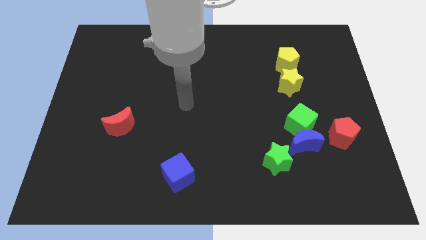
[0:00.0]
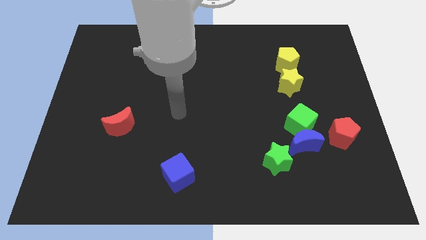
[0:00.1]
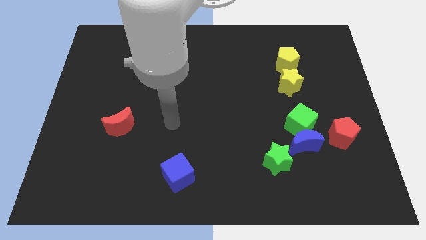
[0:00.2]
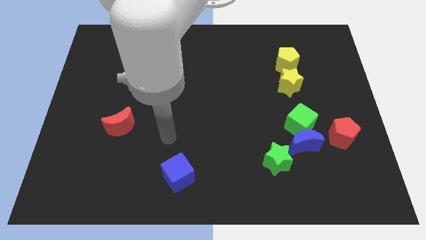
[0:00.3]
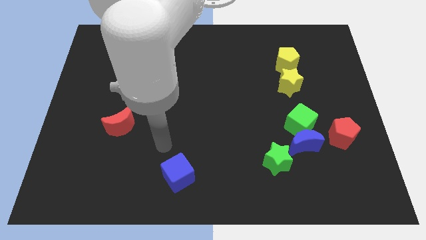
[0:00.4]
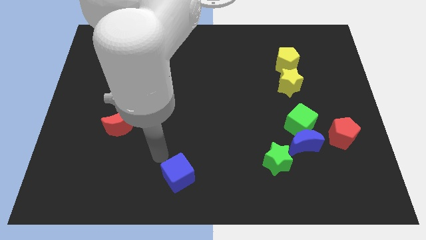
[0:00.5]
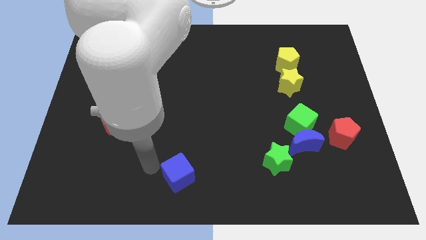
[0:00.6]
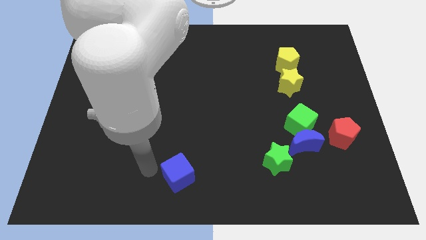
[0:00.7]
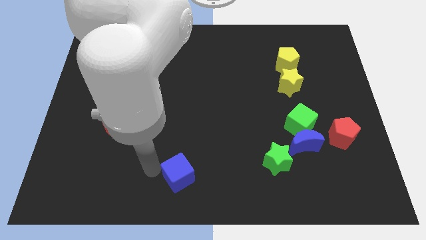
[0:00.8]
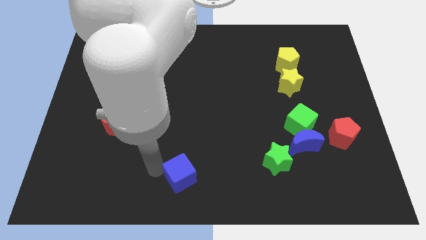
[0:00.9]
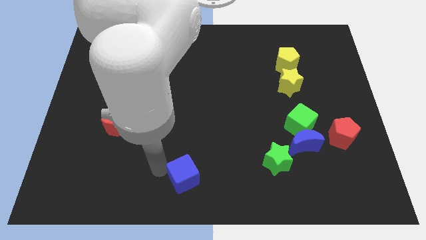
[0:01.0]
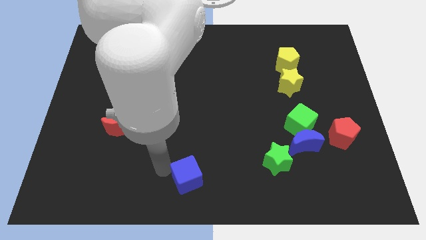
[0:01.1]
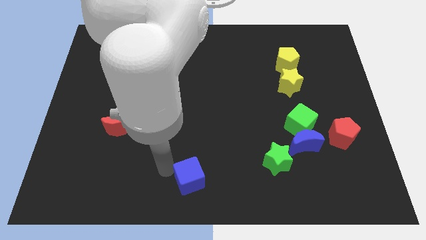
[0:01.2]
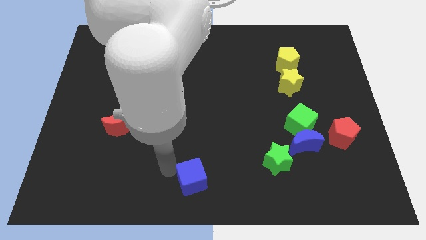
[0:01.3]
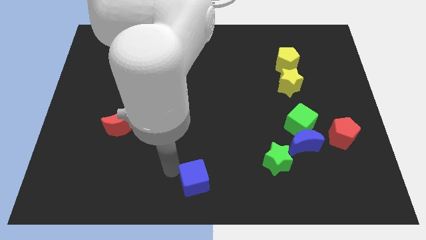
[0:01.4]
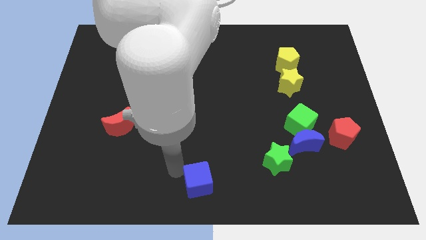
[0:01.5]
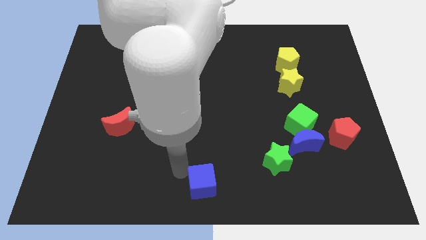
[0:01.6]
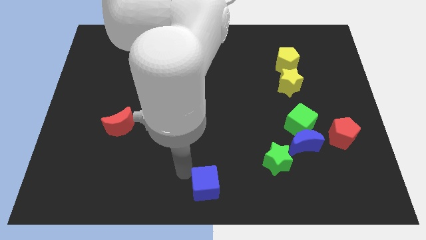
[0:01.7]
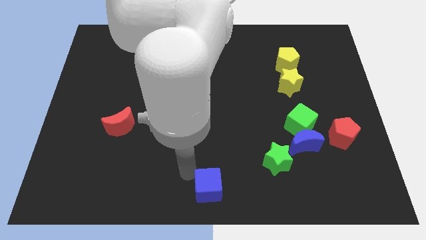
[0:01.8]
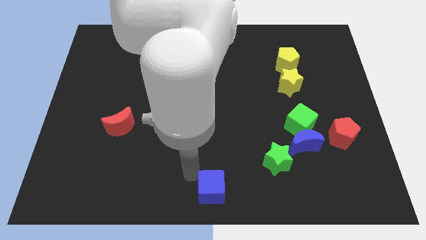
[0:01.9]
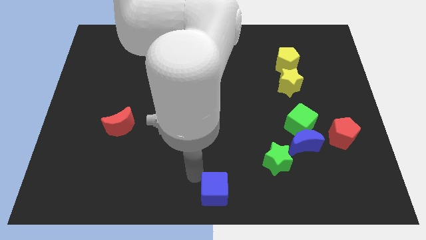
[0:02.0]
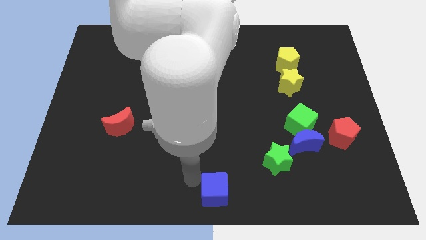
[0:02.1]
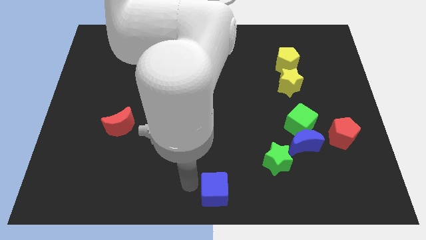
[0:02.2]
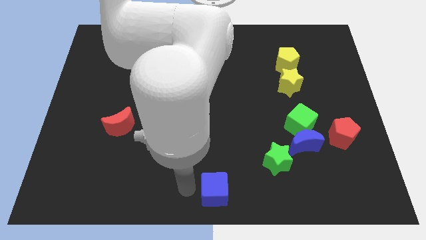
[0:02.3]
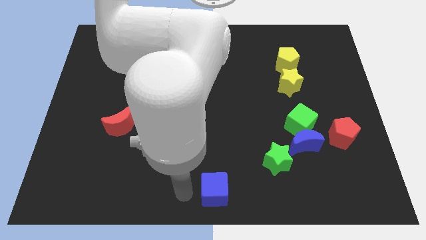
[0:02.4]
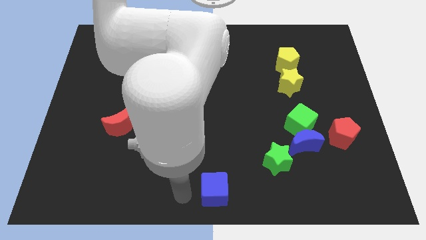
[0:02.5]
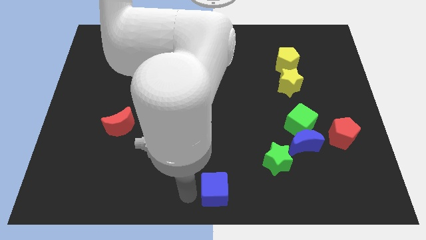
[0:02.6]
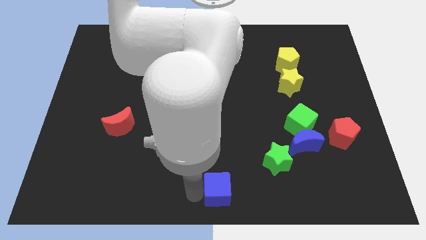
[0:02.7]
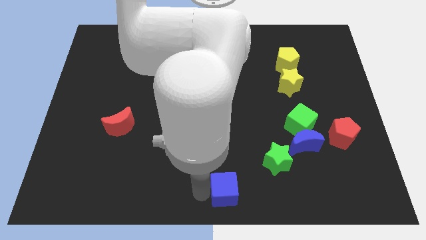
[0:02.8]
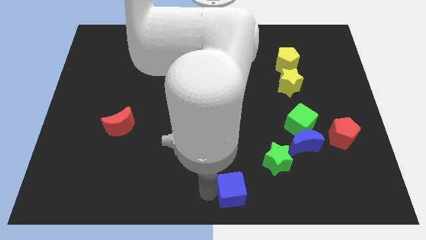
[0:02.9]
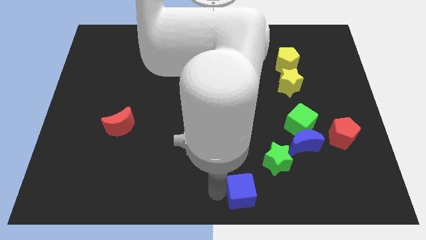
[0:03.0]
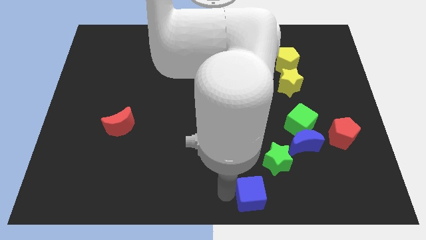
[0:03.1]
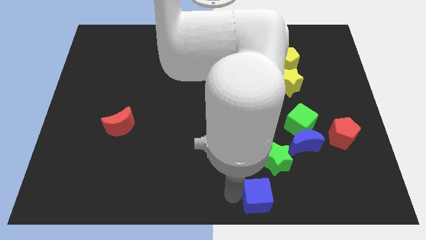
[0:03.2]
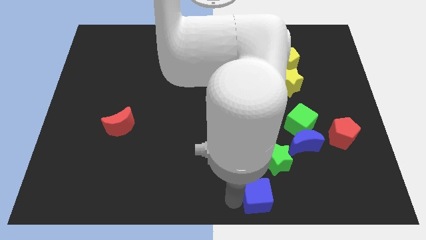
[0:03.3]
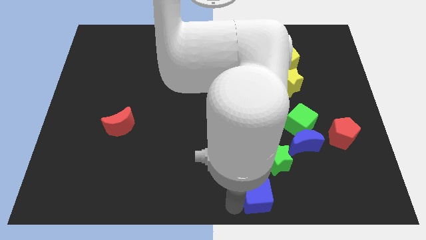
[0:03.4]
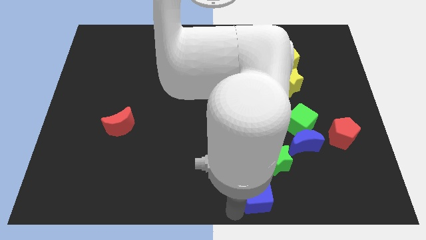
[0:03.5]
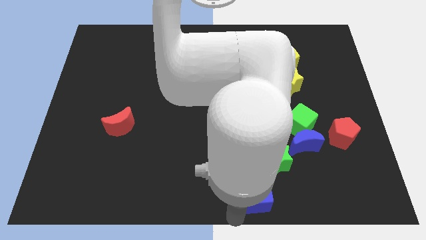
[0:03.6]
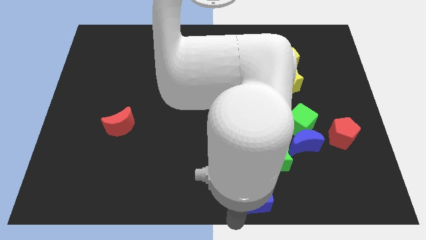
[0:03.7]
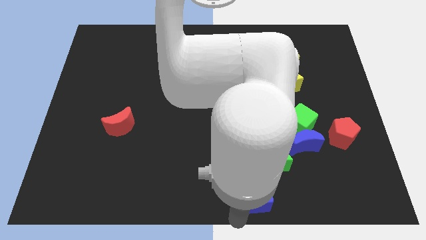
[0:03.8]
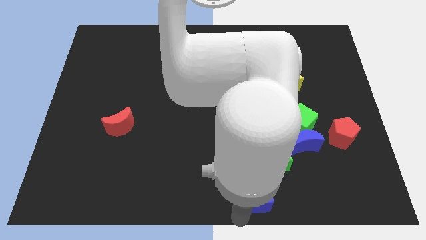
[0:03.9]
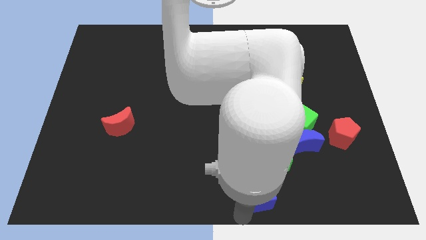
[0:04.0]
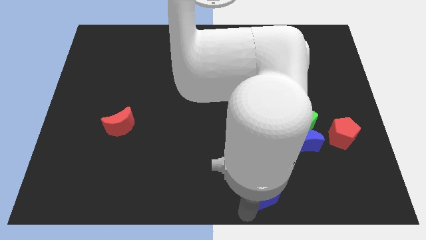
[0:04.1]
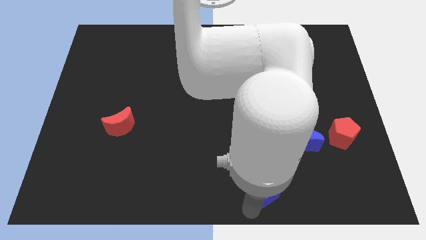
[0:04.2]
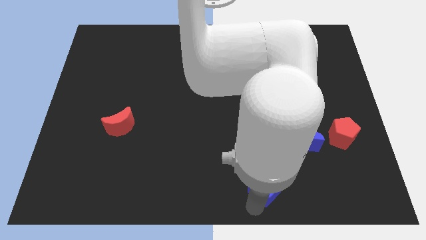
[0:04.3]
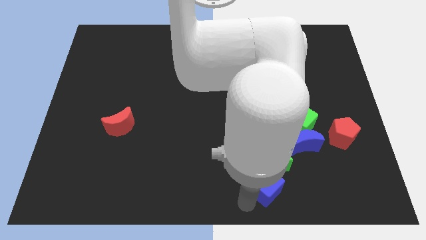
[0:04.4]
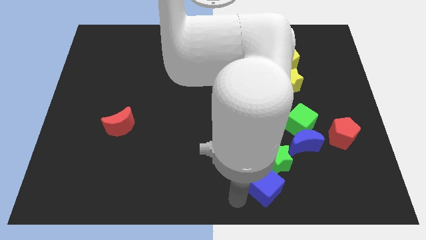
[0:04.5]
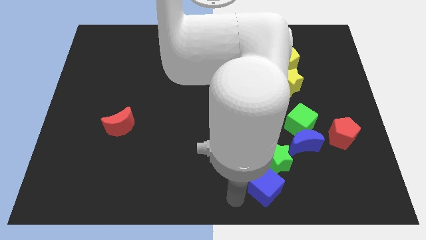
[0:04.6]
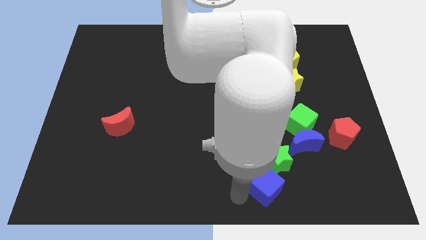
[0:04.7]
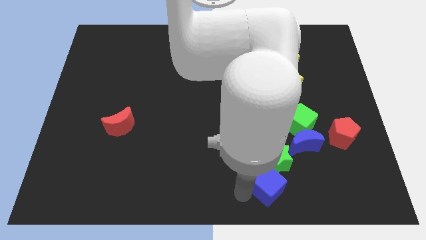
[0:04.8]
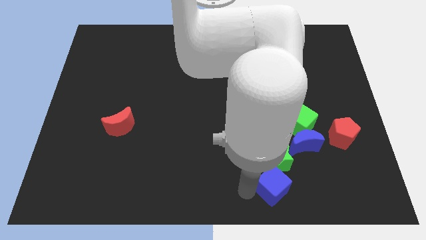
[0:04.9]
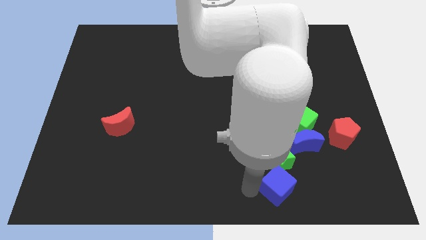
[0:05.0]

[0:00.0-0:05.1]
slide the blue cube right

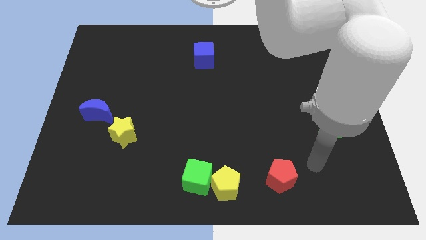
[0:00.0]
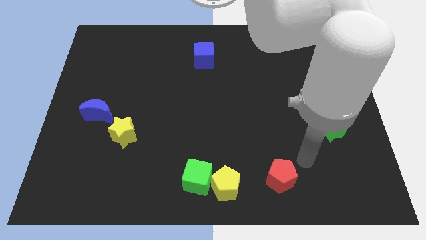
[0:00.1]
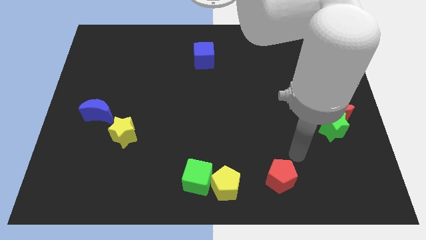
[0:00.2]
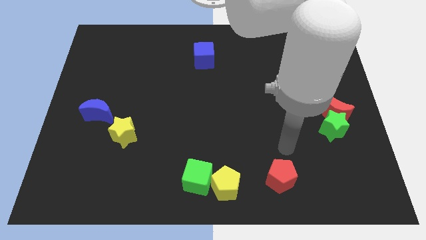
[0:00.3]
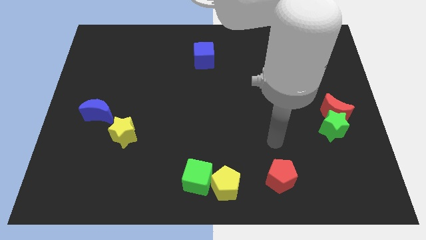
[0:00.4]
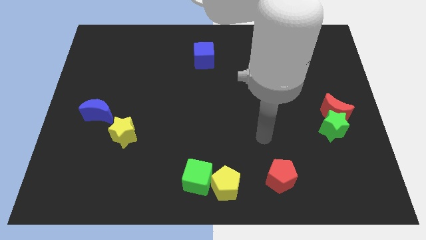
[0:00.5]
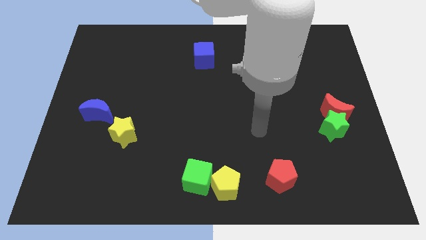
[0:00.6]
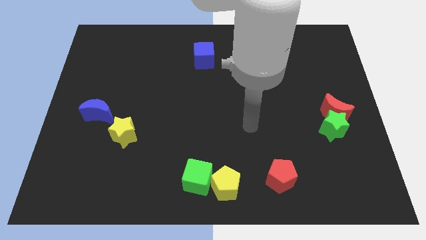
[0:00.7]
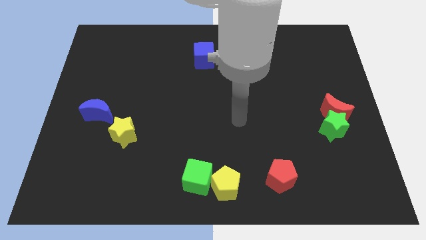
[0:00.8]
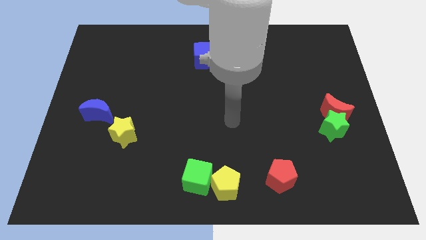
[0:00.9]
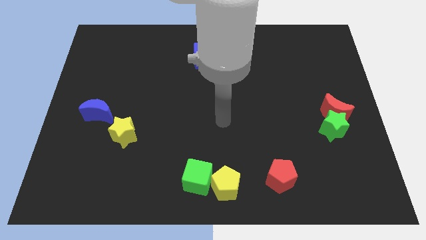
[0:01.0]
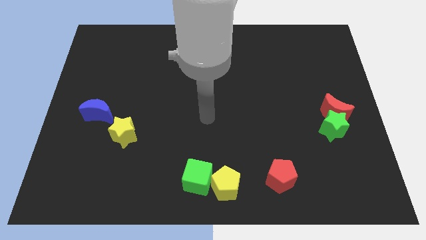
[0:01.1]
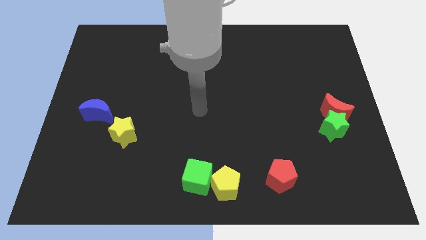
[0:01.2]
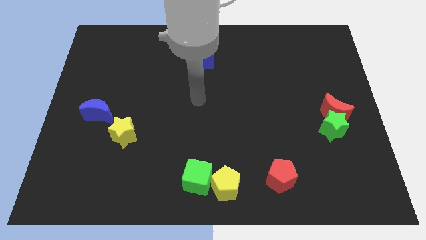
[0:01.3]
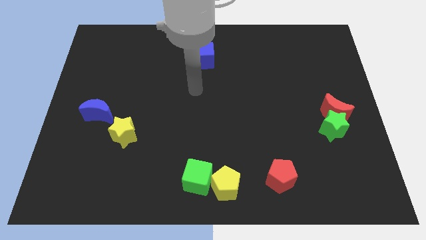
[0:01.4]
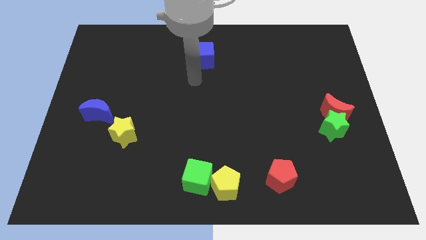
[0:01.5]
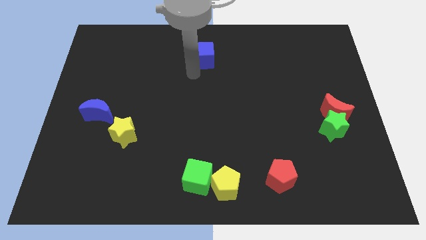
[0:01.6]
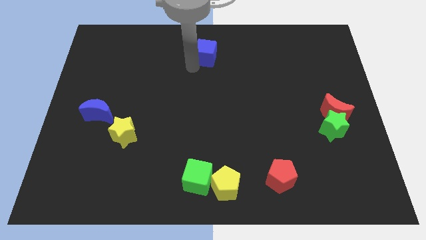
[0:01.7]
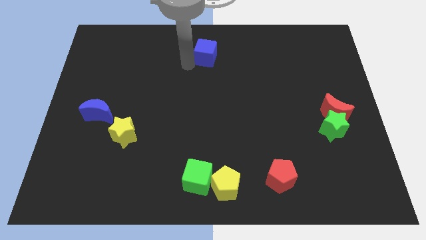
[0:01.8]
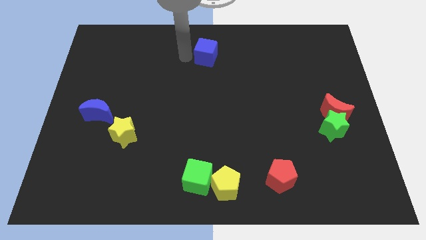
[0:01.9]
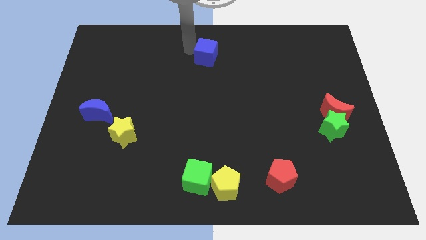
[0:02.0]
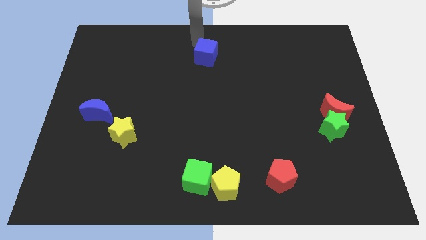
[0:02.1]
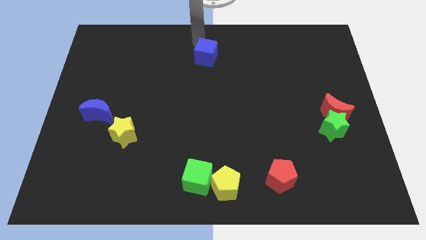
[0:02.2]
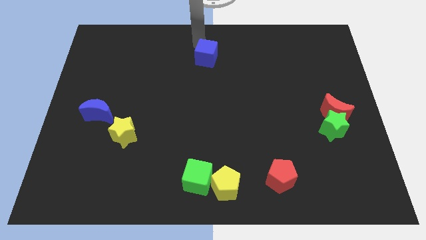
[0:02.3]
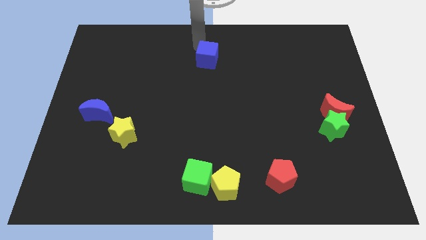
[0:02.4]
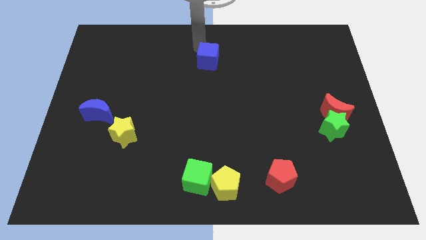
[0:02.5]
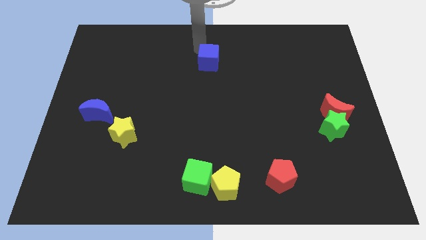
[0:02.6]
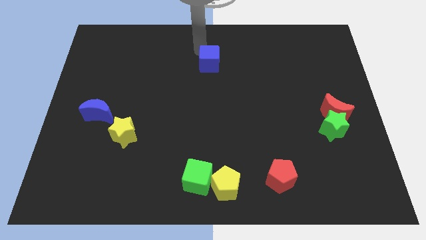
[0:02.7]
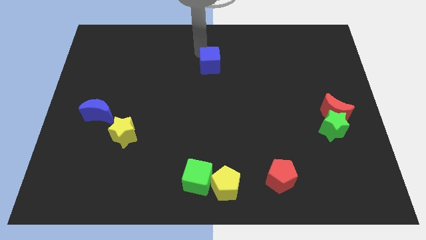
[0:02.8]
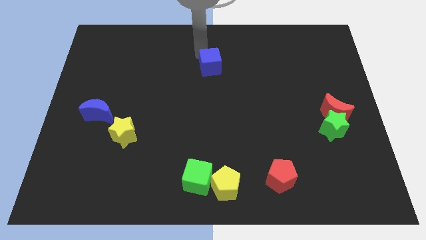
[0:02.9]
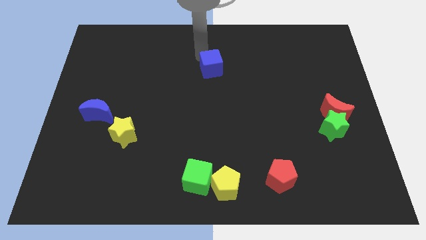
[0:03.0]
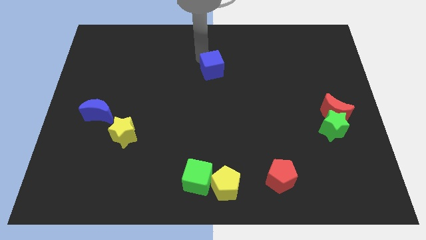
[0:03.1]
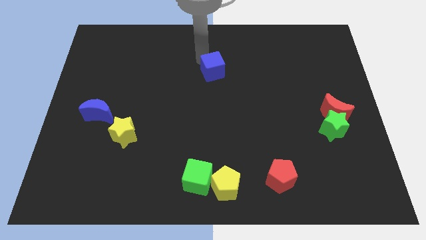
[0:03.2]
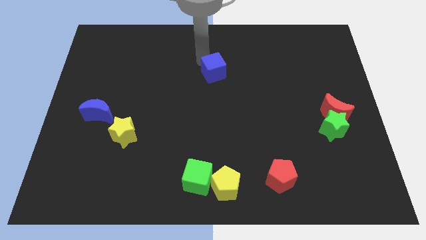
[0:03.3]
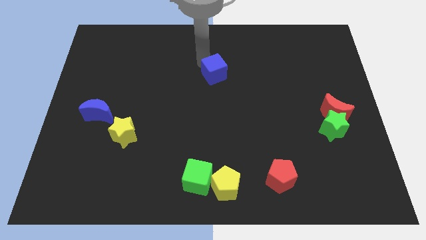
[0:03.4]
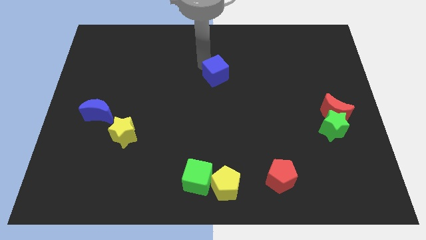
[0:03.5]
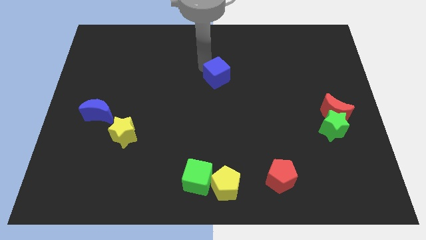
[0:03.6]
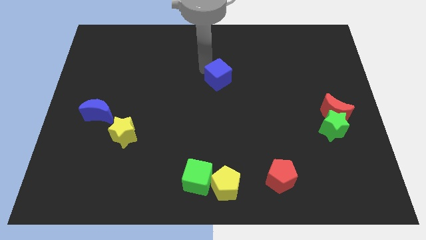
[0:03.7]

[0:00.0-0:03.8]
move the blue cube diagonally down and to the right somewhat
